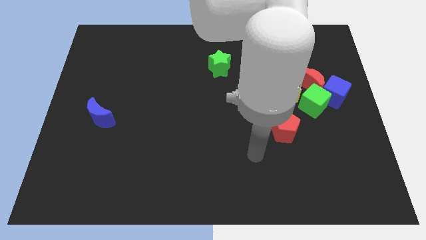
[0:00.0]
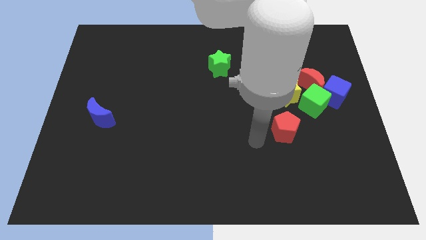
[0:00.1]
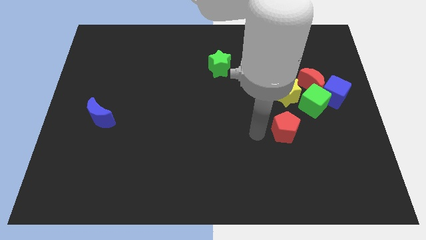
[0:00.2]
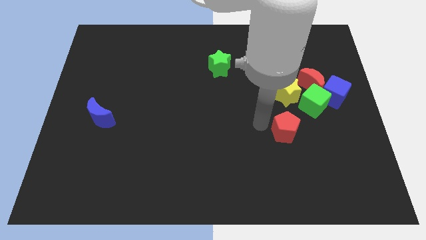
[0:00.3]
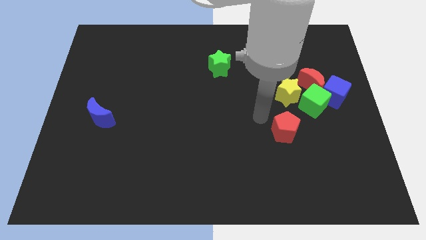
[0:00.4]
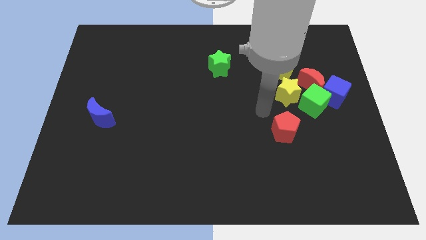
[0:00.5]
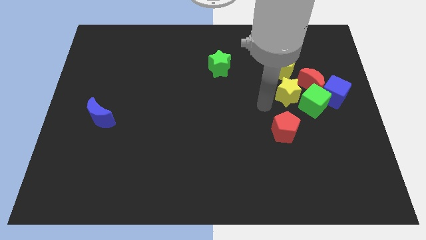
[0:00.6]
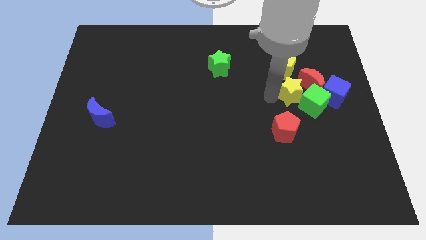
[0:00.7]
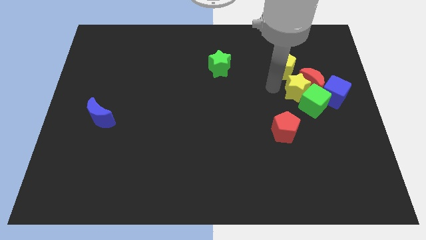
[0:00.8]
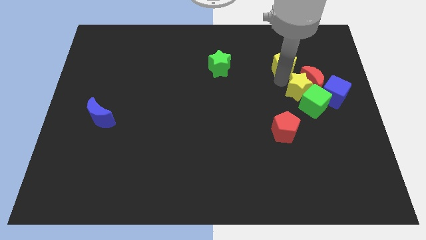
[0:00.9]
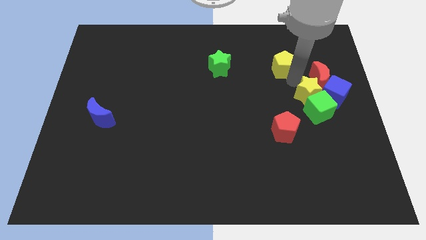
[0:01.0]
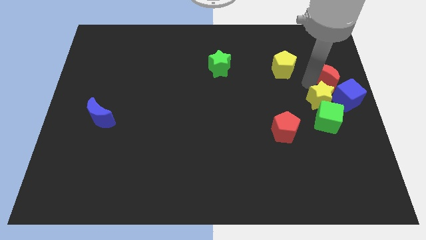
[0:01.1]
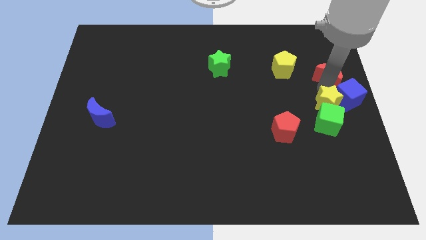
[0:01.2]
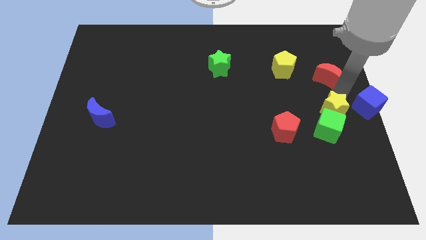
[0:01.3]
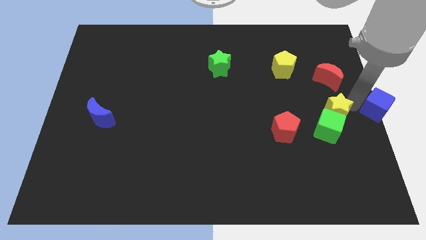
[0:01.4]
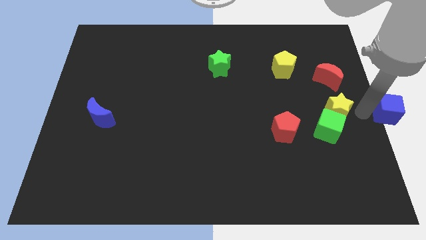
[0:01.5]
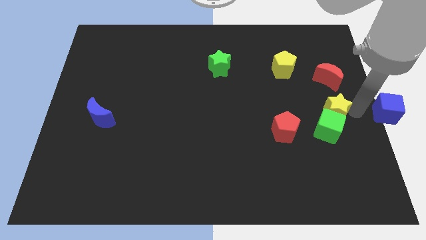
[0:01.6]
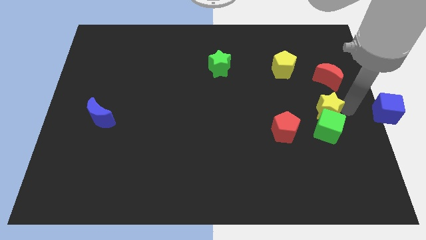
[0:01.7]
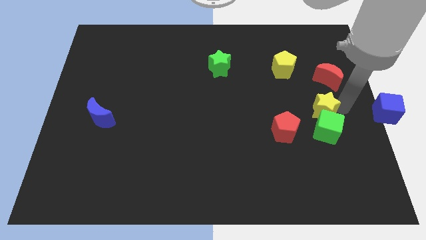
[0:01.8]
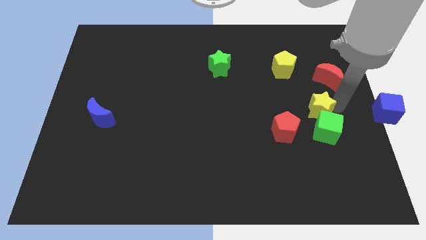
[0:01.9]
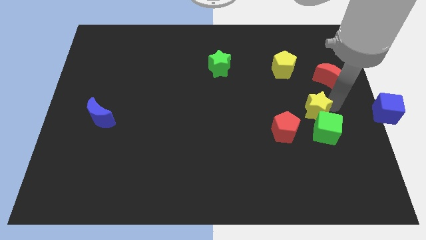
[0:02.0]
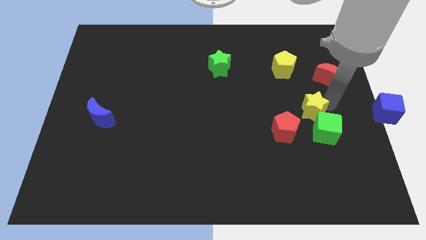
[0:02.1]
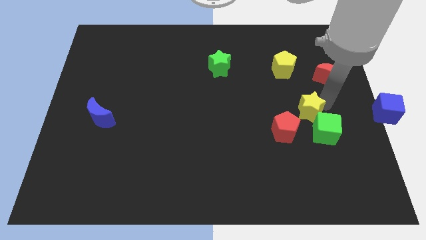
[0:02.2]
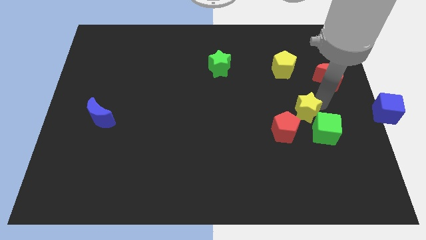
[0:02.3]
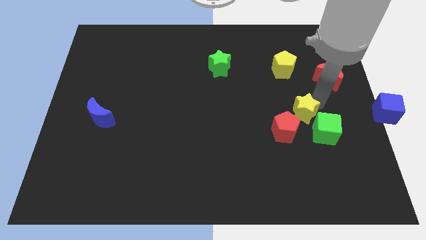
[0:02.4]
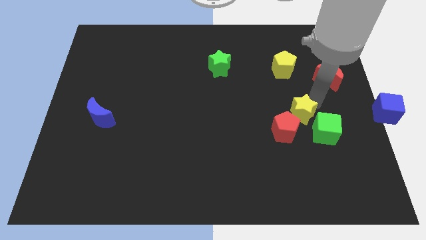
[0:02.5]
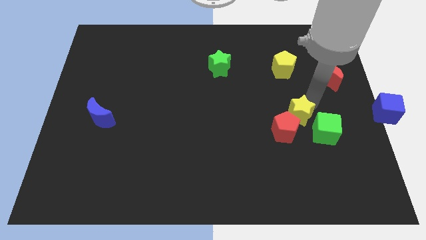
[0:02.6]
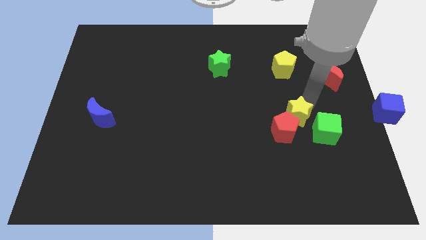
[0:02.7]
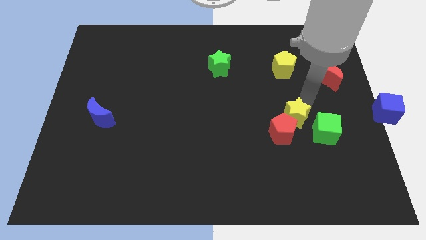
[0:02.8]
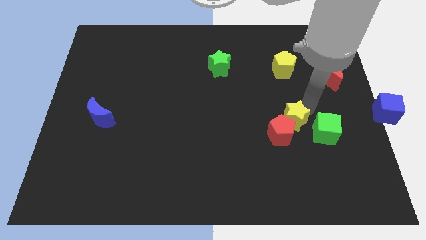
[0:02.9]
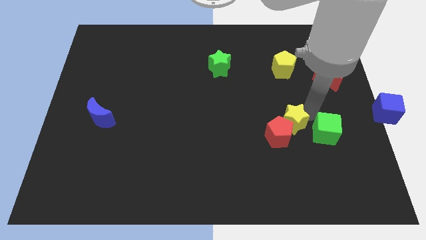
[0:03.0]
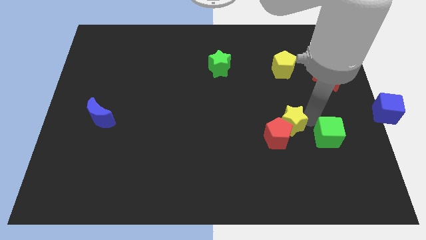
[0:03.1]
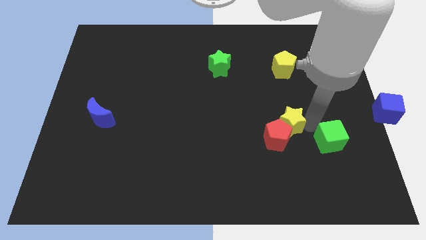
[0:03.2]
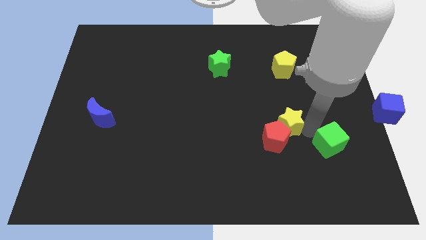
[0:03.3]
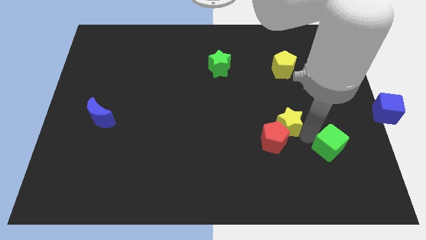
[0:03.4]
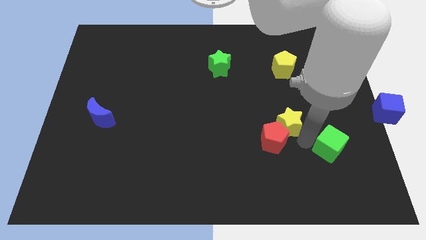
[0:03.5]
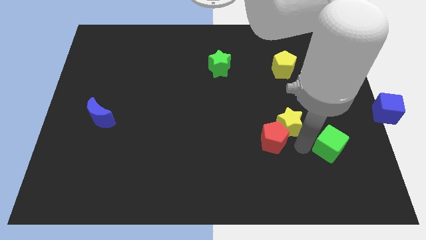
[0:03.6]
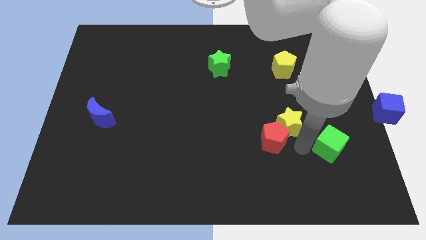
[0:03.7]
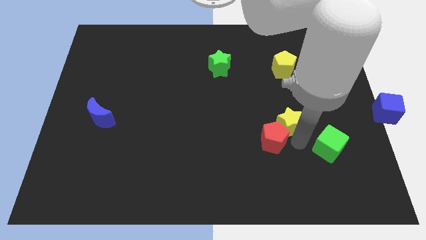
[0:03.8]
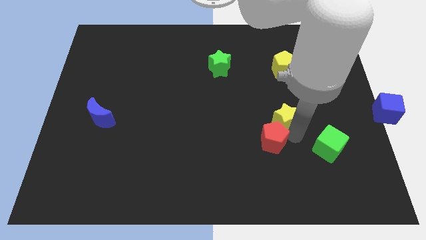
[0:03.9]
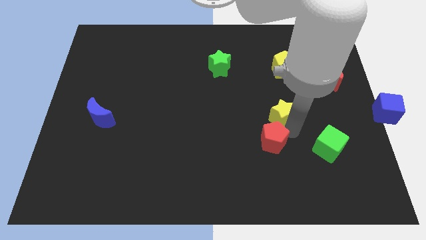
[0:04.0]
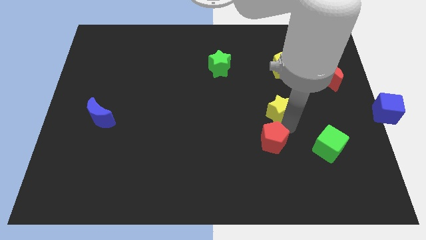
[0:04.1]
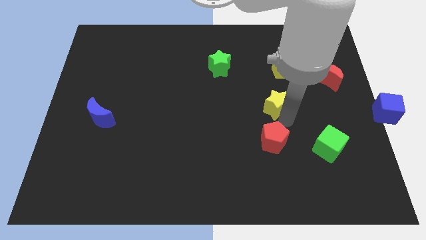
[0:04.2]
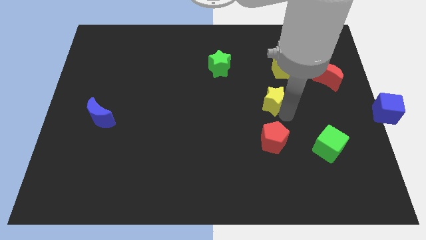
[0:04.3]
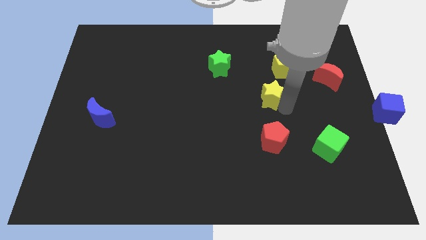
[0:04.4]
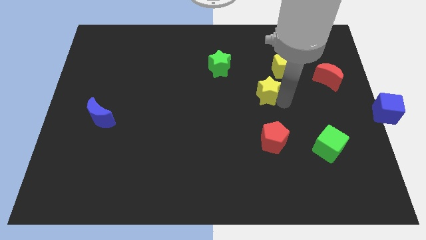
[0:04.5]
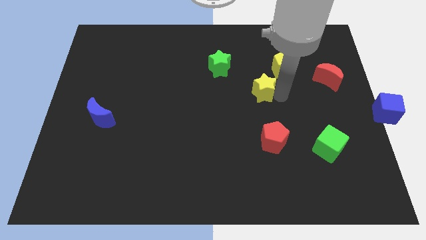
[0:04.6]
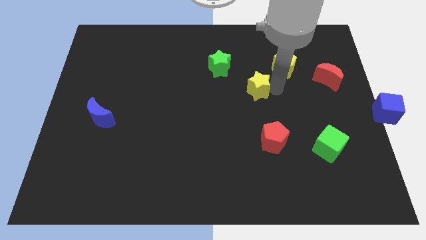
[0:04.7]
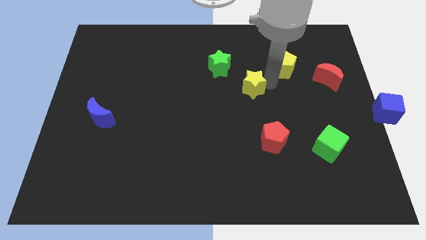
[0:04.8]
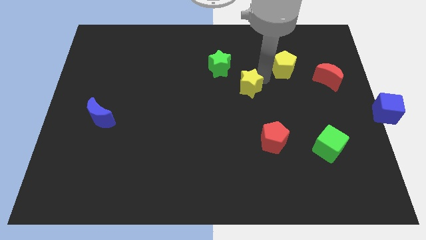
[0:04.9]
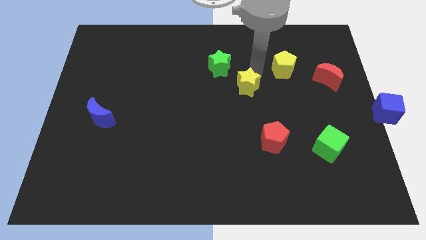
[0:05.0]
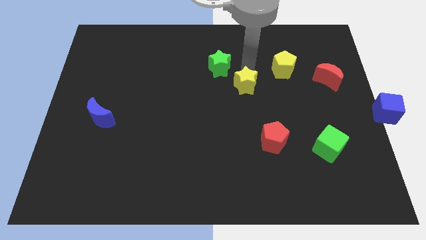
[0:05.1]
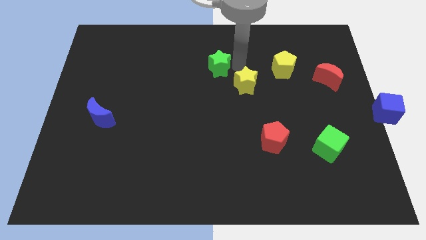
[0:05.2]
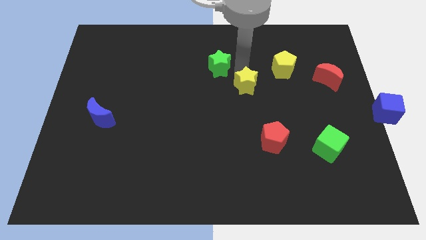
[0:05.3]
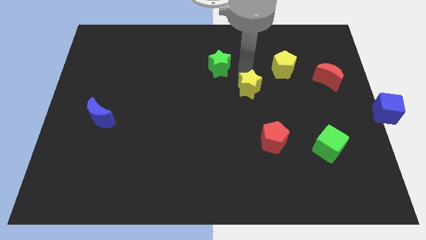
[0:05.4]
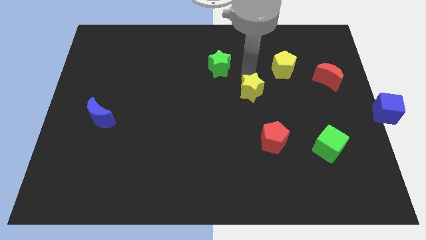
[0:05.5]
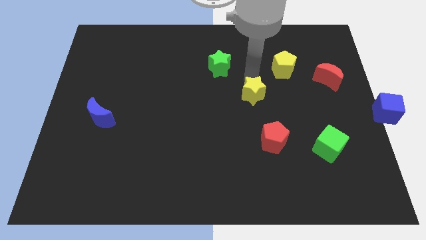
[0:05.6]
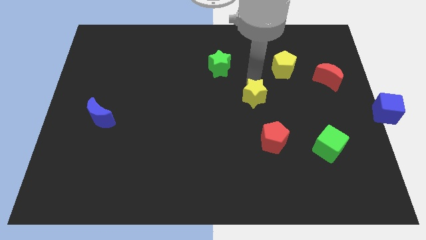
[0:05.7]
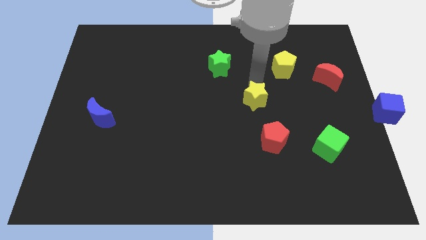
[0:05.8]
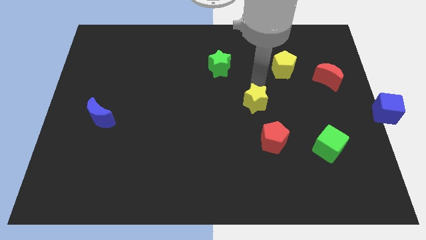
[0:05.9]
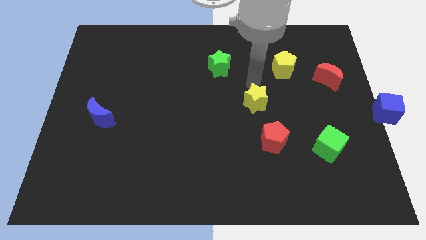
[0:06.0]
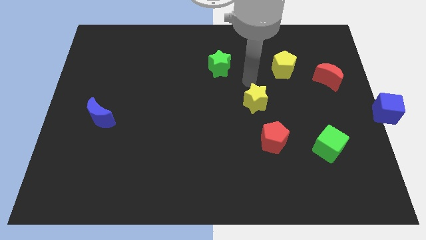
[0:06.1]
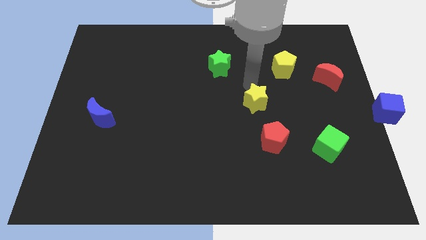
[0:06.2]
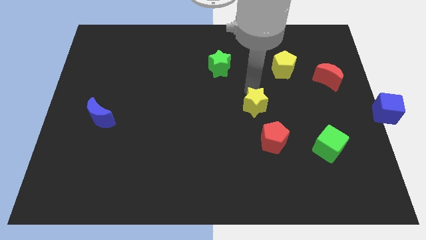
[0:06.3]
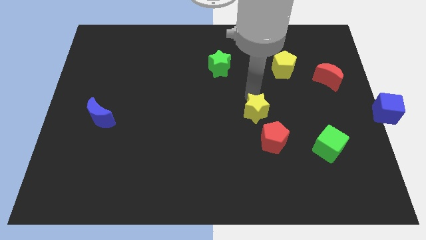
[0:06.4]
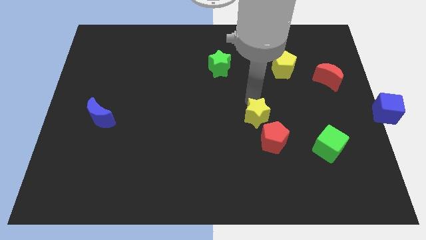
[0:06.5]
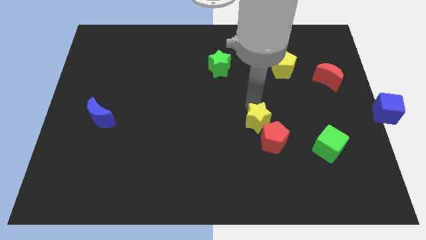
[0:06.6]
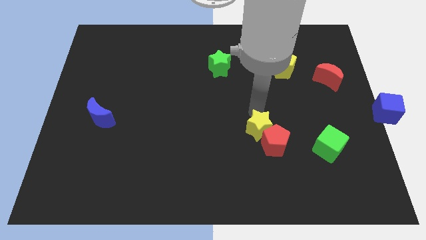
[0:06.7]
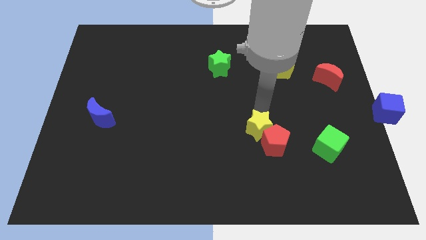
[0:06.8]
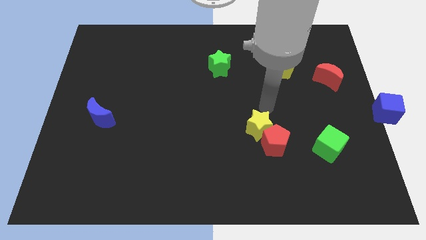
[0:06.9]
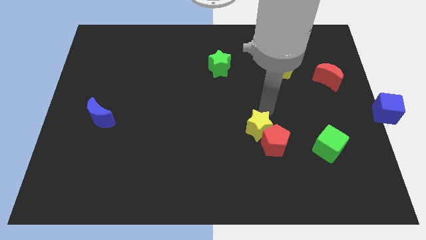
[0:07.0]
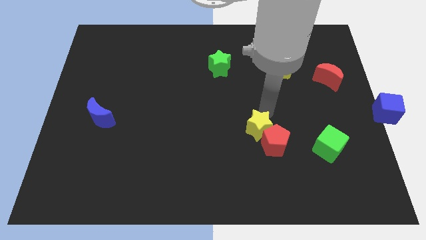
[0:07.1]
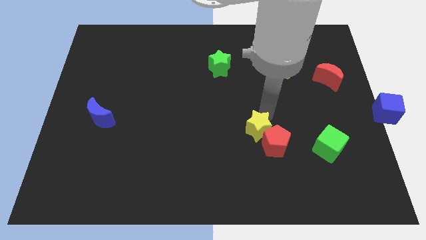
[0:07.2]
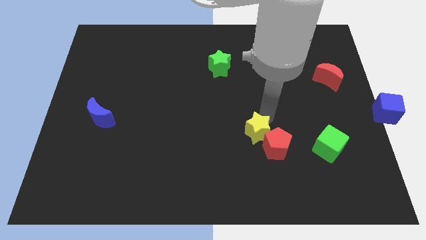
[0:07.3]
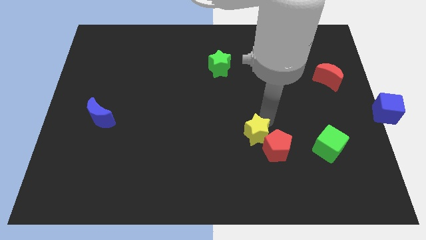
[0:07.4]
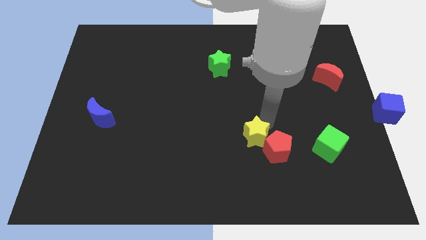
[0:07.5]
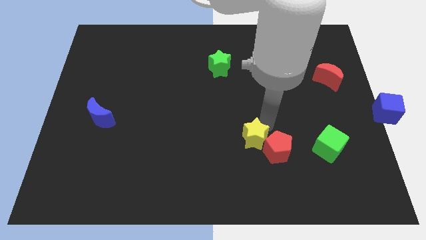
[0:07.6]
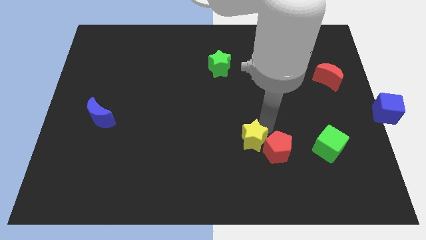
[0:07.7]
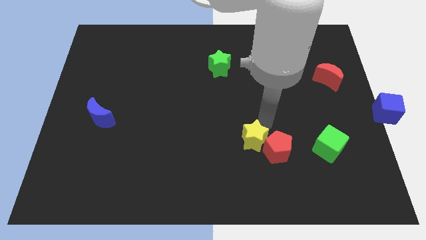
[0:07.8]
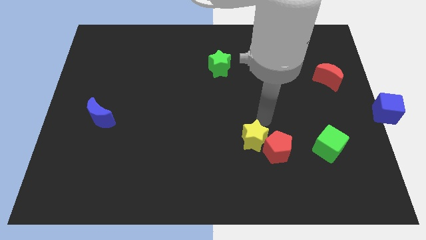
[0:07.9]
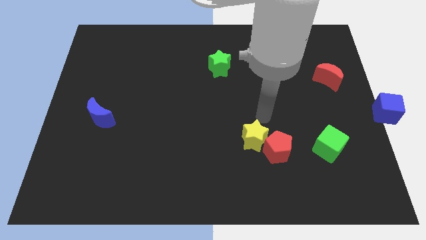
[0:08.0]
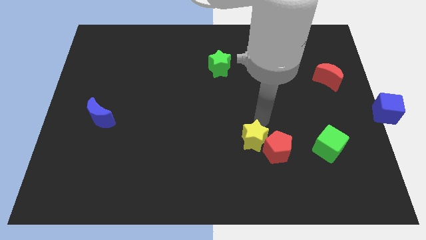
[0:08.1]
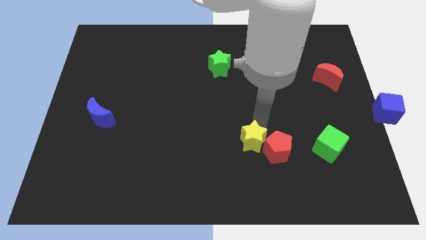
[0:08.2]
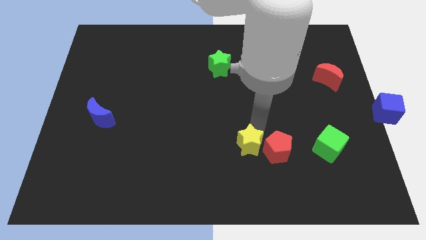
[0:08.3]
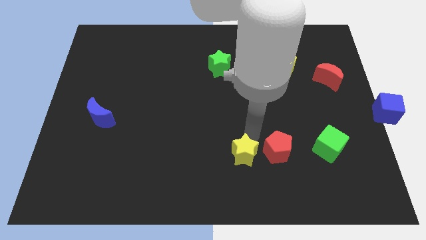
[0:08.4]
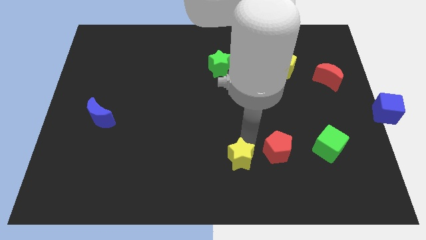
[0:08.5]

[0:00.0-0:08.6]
move the yellow star to the bottom side
